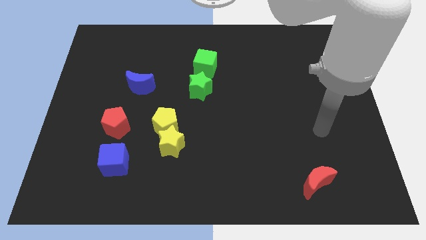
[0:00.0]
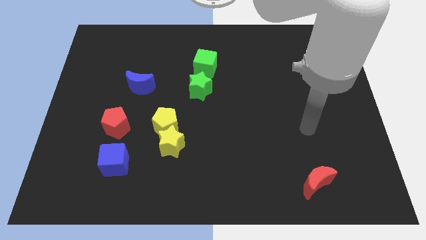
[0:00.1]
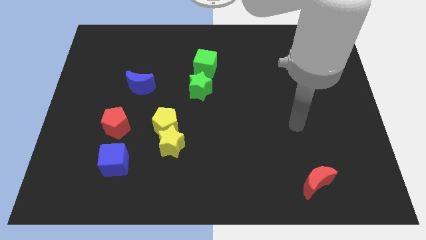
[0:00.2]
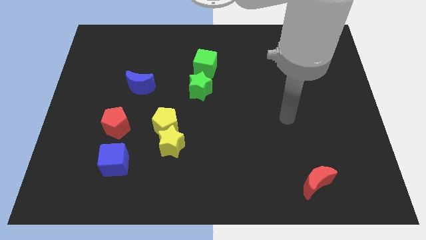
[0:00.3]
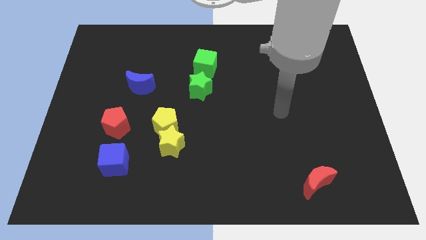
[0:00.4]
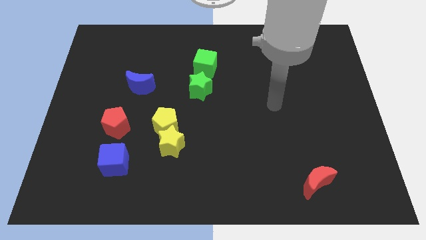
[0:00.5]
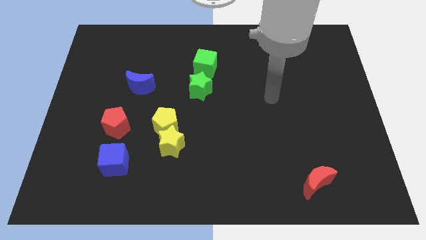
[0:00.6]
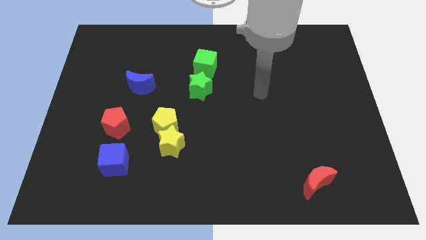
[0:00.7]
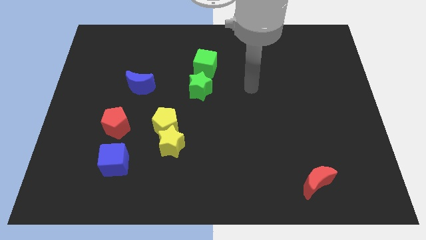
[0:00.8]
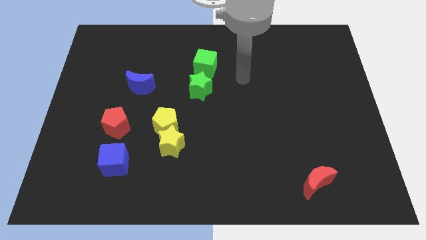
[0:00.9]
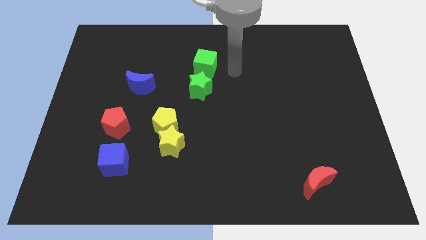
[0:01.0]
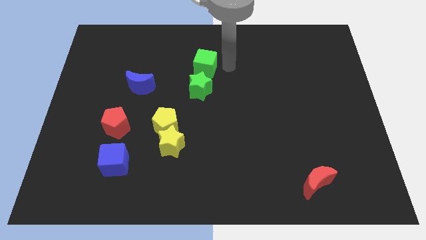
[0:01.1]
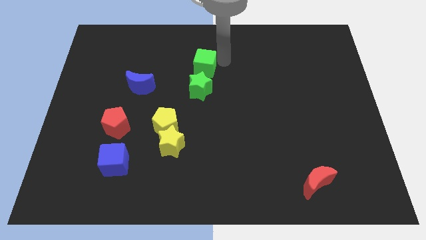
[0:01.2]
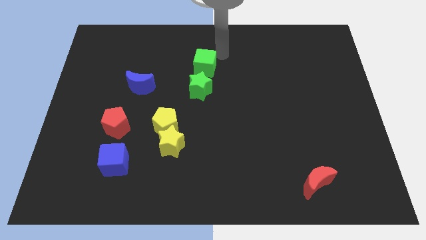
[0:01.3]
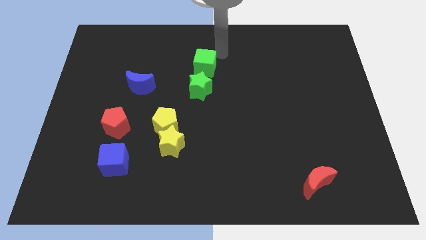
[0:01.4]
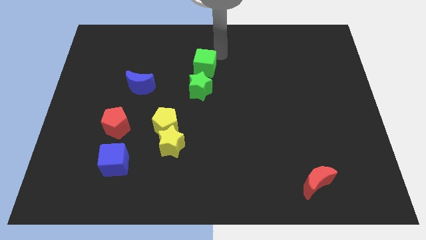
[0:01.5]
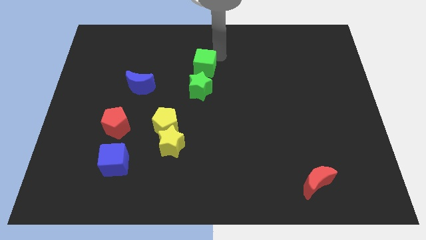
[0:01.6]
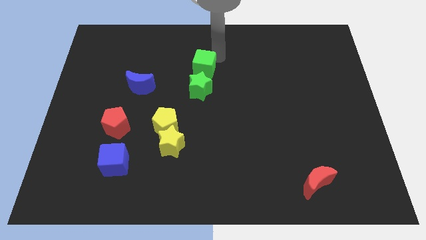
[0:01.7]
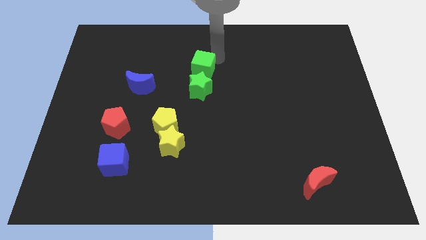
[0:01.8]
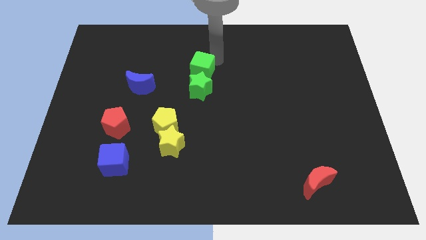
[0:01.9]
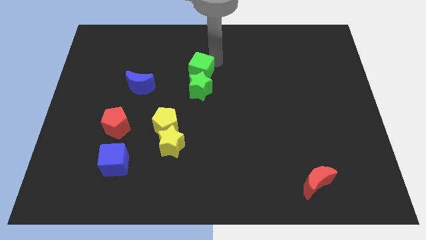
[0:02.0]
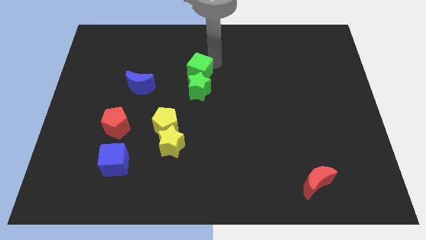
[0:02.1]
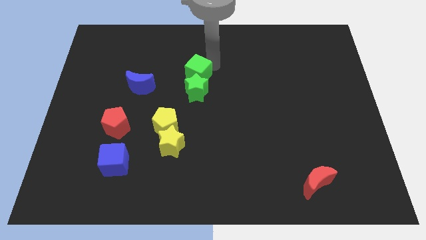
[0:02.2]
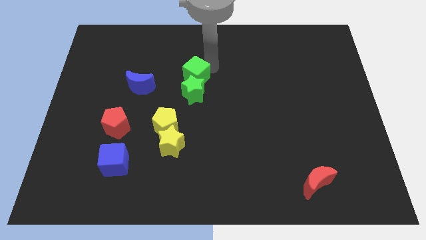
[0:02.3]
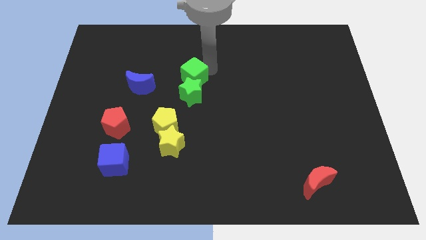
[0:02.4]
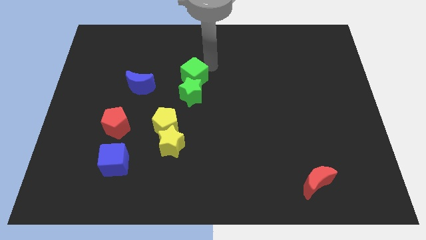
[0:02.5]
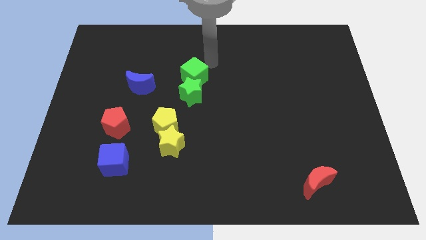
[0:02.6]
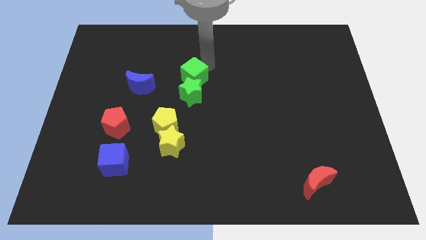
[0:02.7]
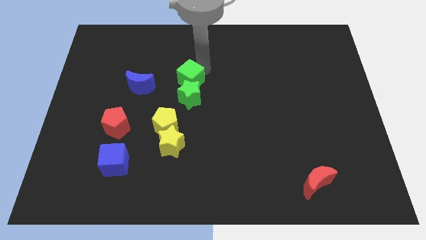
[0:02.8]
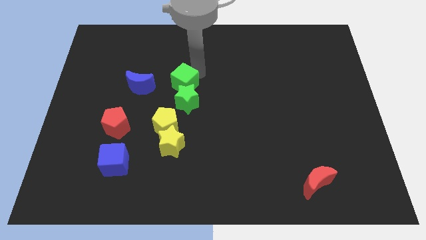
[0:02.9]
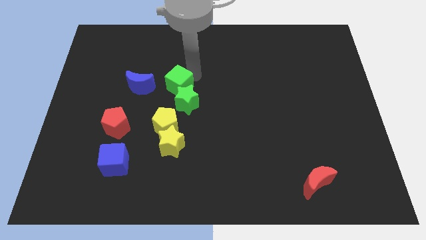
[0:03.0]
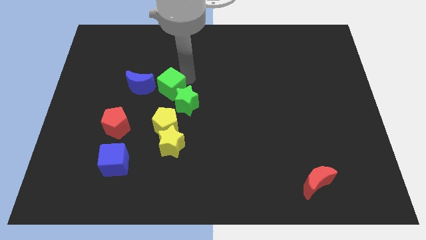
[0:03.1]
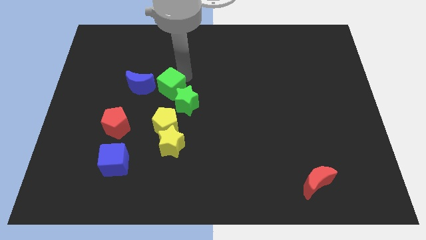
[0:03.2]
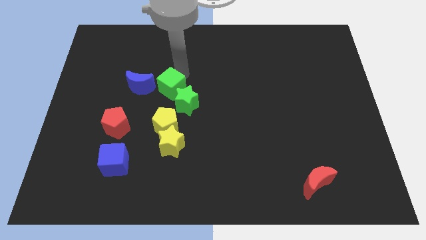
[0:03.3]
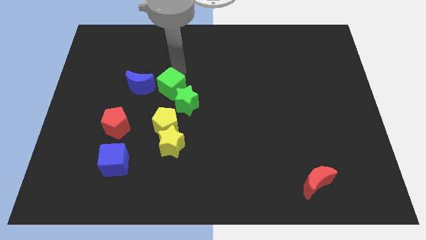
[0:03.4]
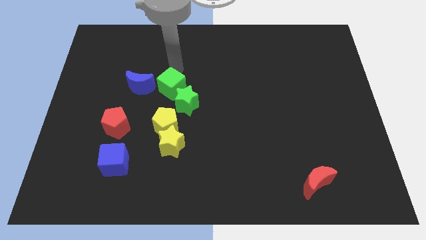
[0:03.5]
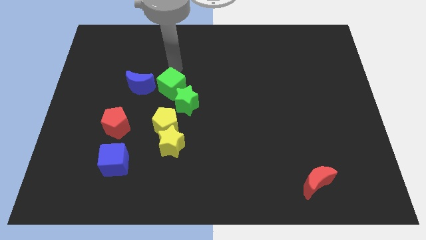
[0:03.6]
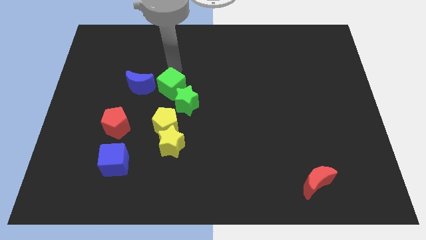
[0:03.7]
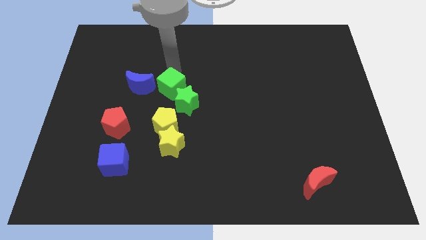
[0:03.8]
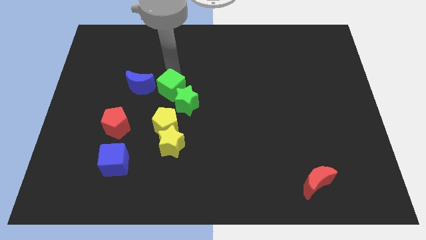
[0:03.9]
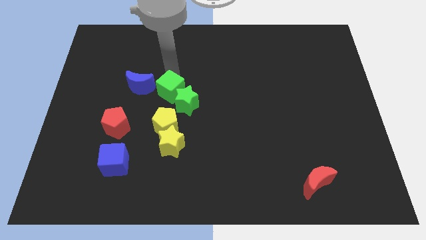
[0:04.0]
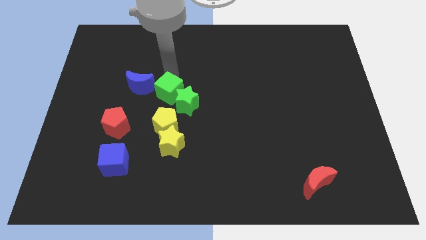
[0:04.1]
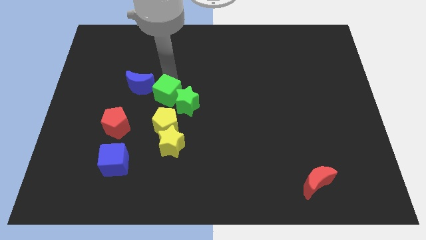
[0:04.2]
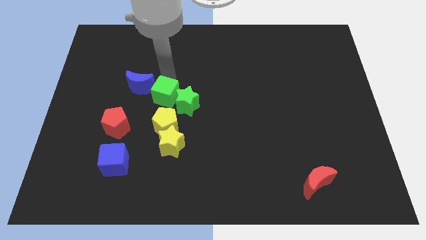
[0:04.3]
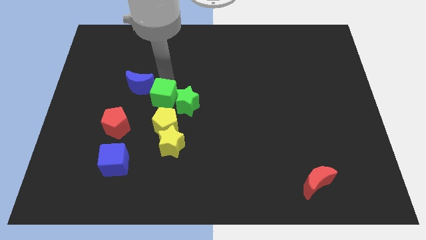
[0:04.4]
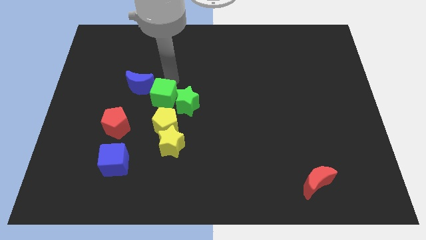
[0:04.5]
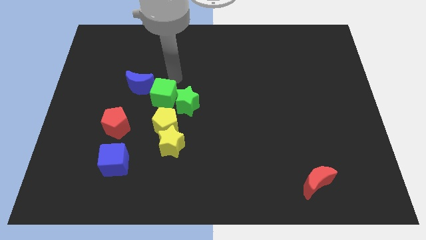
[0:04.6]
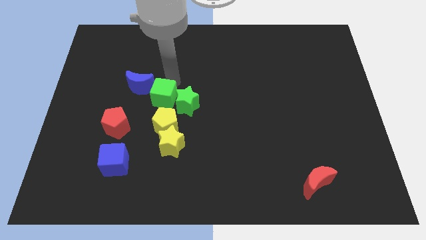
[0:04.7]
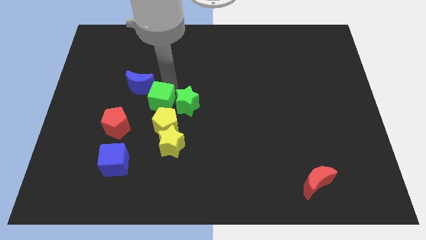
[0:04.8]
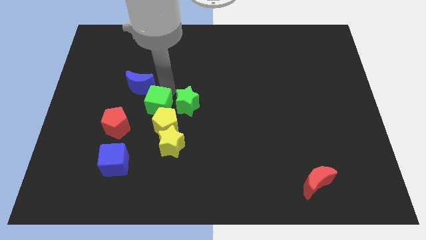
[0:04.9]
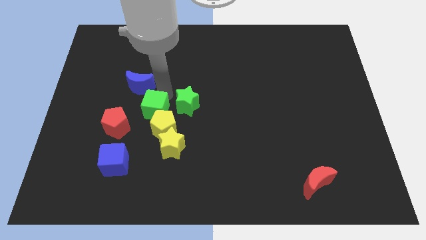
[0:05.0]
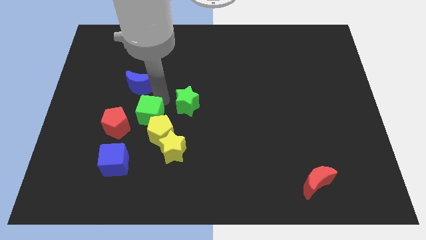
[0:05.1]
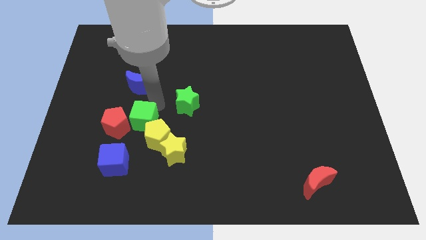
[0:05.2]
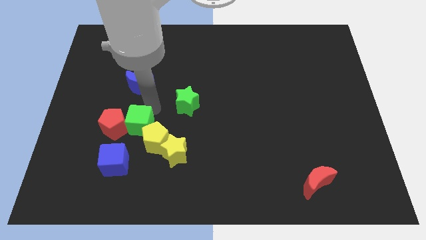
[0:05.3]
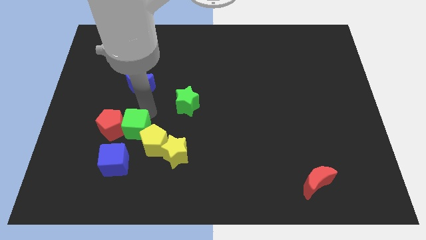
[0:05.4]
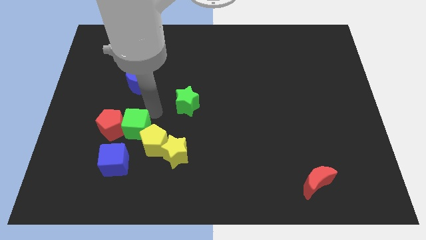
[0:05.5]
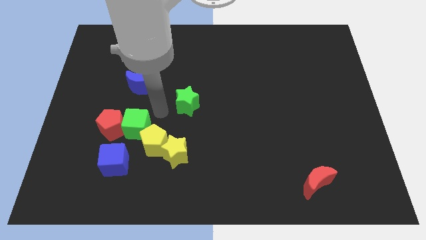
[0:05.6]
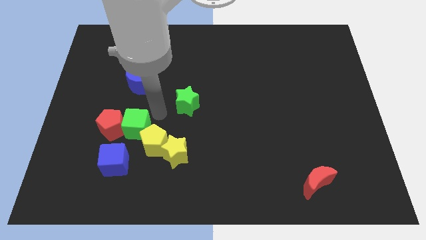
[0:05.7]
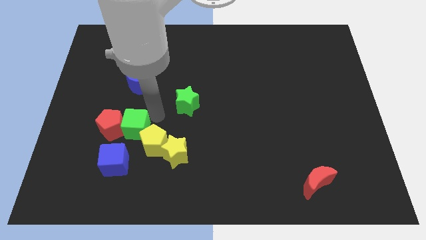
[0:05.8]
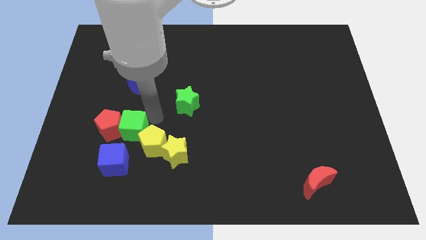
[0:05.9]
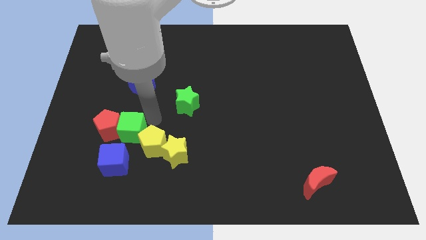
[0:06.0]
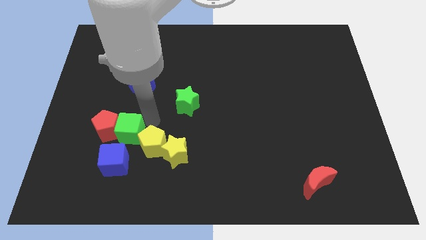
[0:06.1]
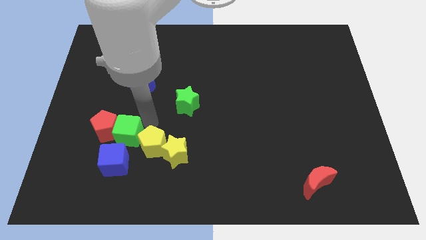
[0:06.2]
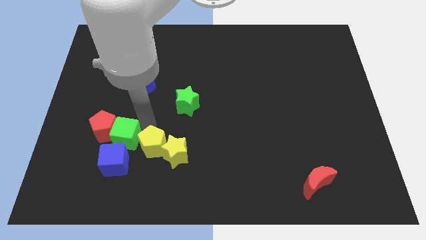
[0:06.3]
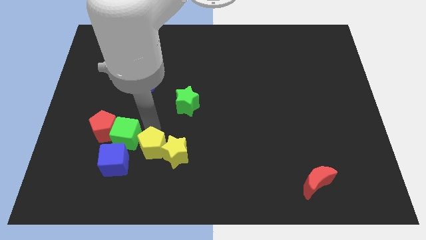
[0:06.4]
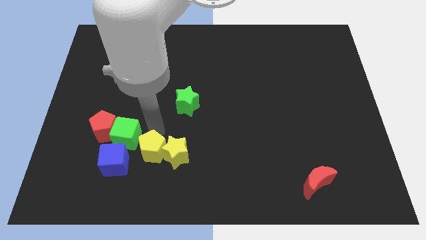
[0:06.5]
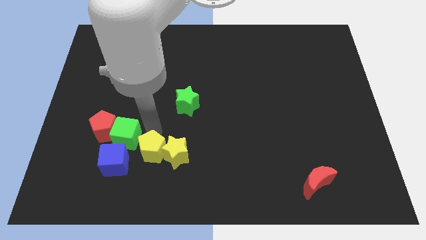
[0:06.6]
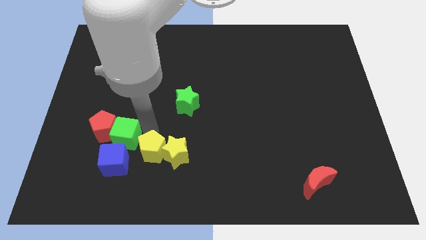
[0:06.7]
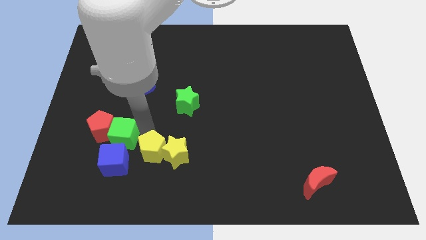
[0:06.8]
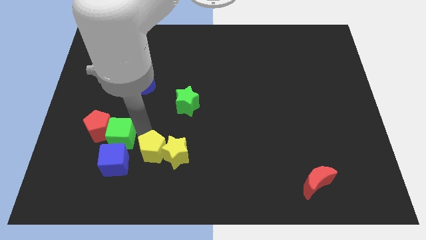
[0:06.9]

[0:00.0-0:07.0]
move the green cube to the top left side of the blue cube
